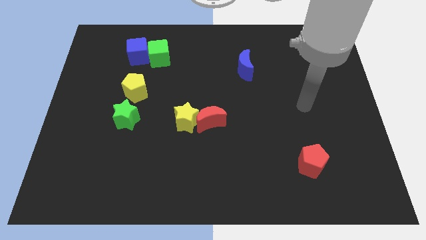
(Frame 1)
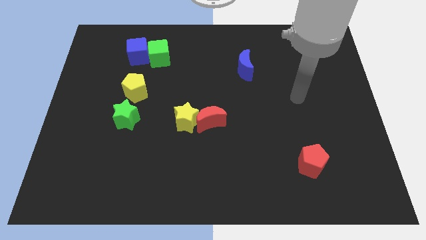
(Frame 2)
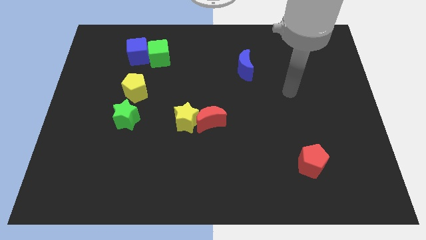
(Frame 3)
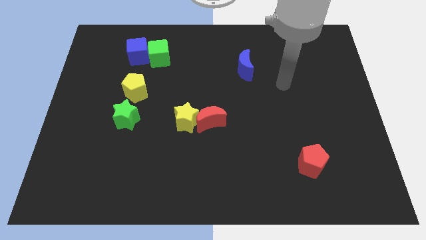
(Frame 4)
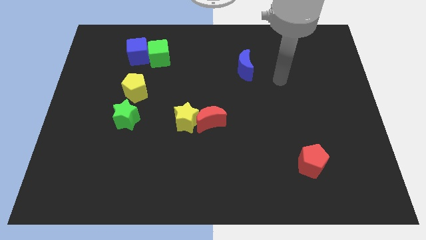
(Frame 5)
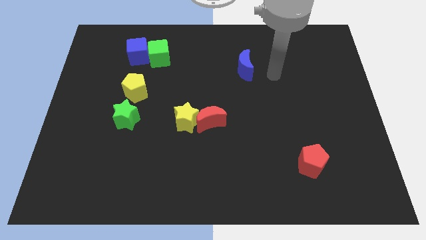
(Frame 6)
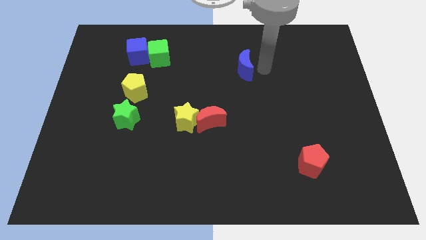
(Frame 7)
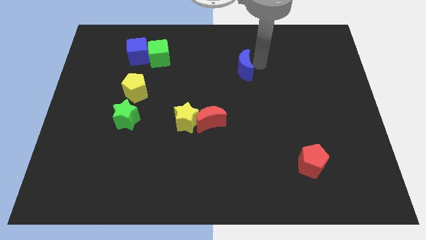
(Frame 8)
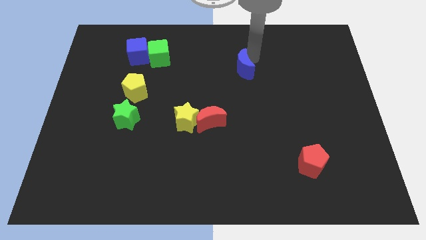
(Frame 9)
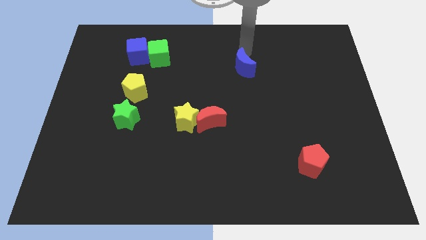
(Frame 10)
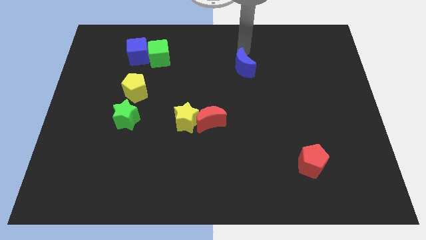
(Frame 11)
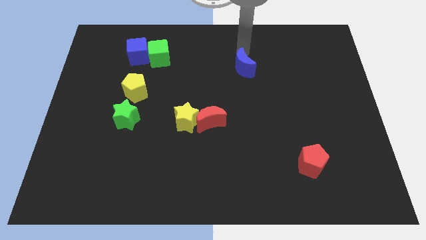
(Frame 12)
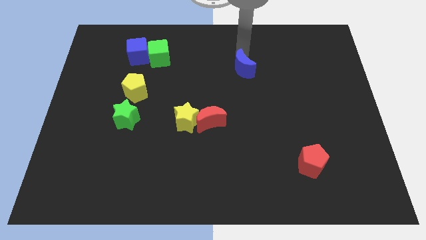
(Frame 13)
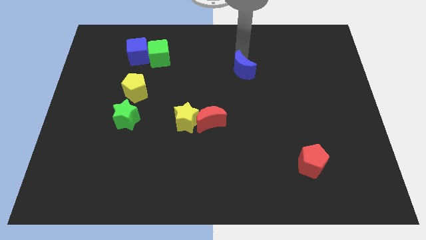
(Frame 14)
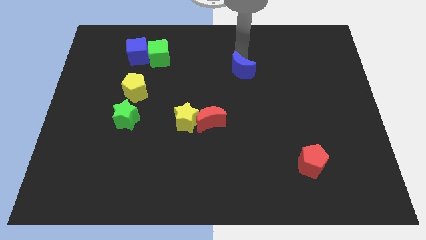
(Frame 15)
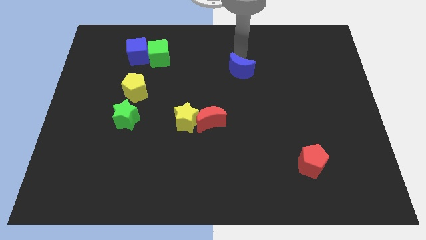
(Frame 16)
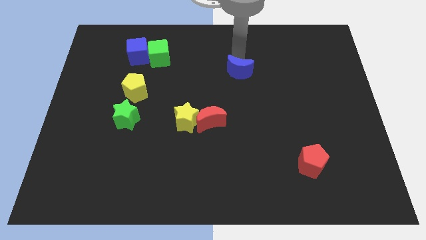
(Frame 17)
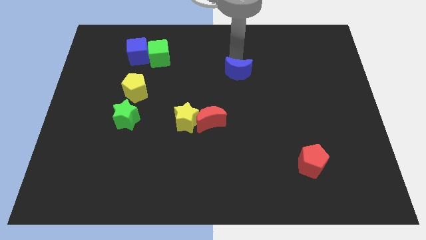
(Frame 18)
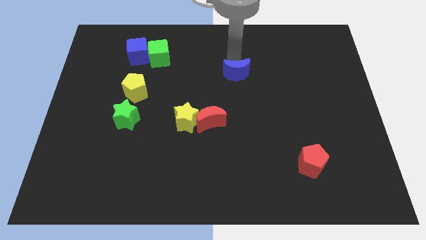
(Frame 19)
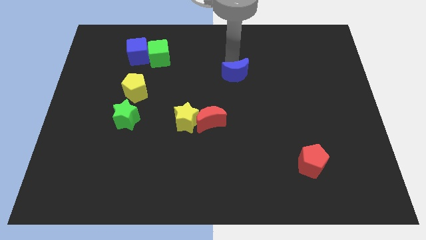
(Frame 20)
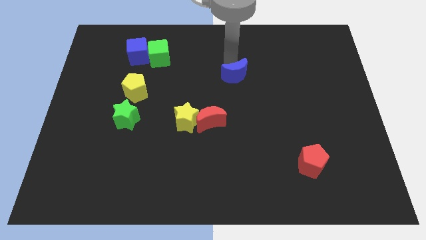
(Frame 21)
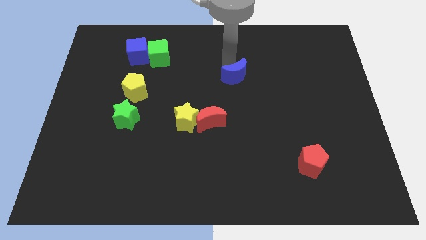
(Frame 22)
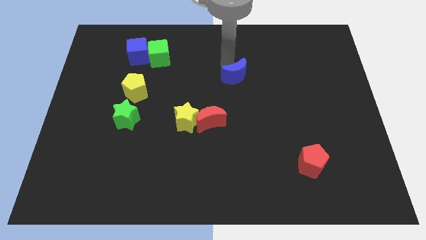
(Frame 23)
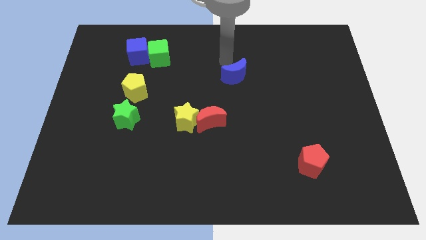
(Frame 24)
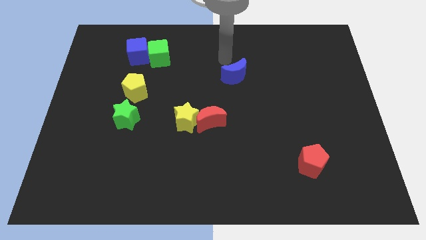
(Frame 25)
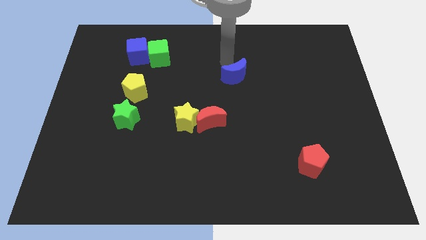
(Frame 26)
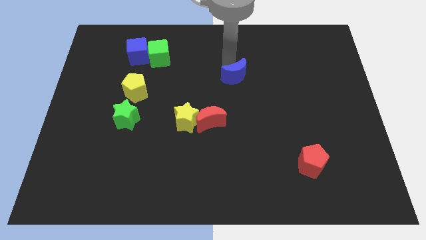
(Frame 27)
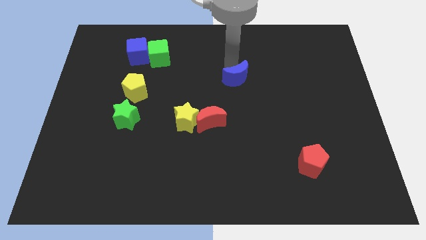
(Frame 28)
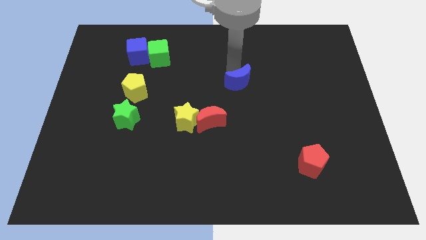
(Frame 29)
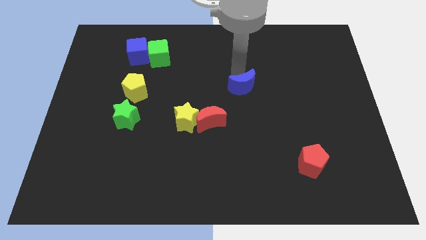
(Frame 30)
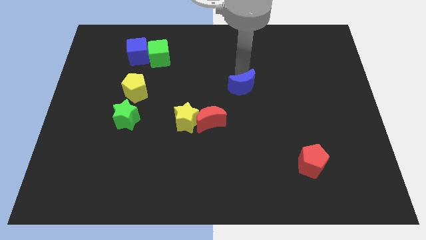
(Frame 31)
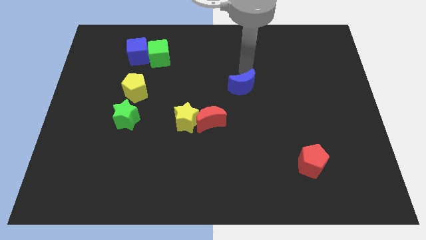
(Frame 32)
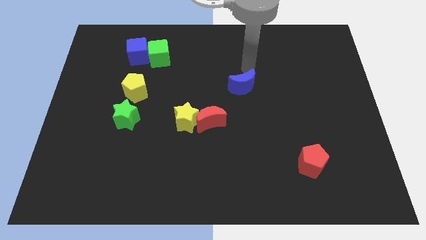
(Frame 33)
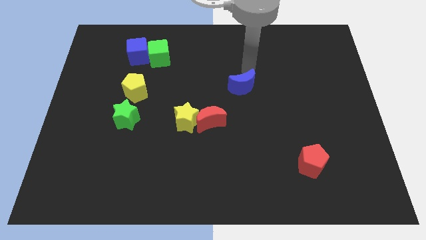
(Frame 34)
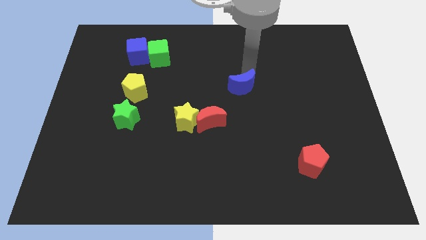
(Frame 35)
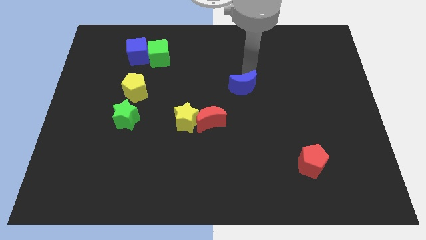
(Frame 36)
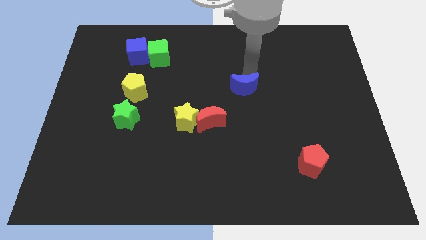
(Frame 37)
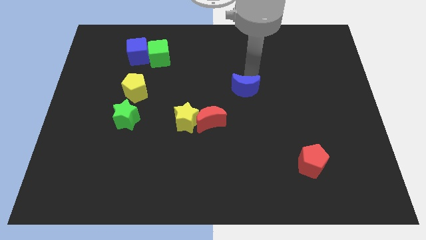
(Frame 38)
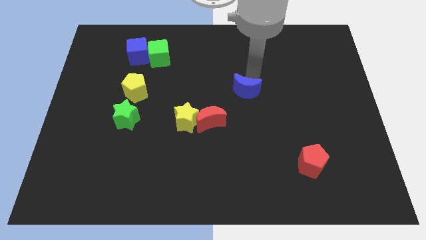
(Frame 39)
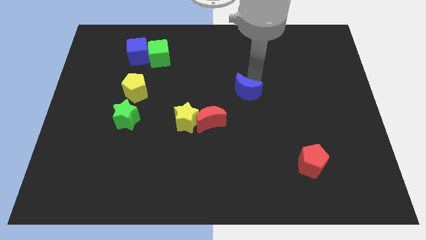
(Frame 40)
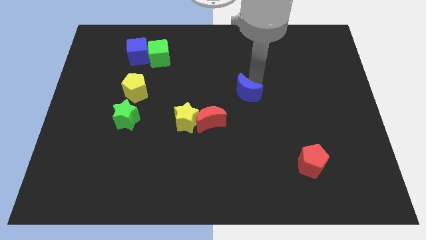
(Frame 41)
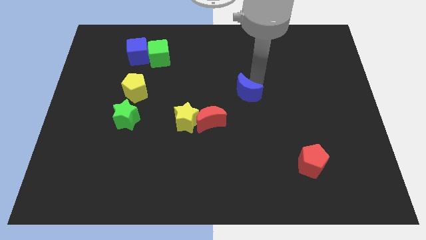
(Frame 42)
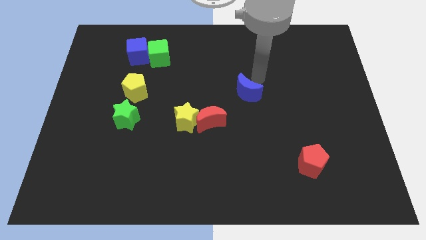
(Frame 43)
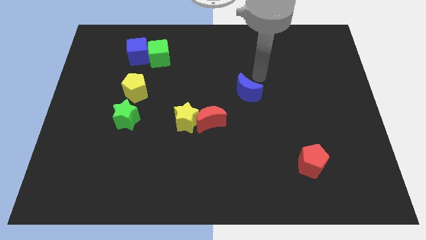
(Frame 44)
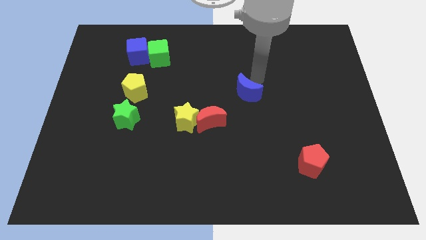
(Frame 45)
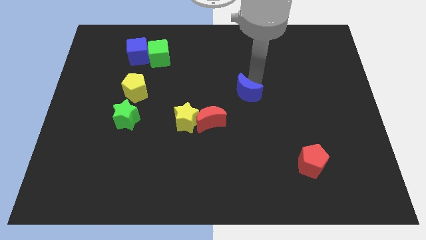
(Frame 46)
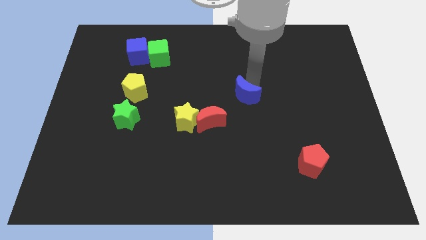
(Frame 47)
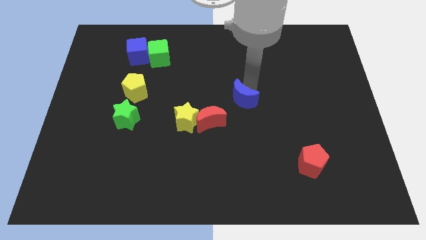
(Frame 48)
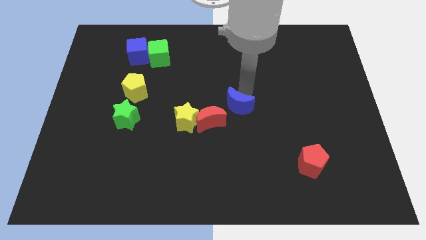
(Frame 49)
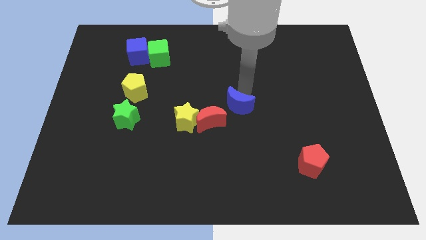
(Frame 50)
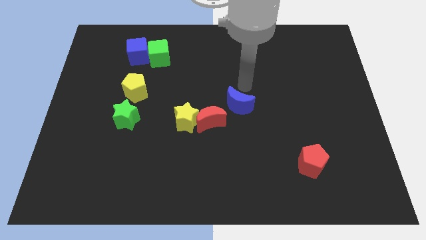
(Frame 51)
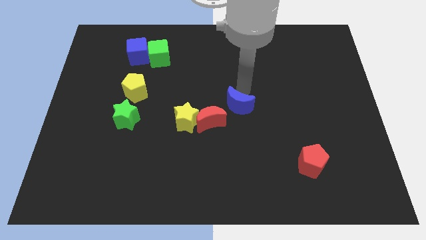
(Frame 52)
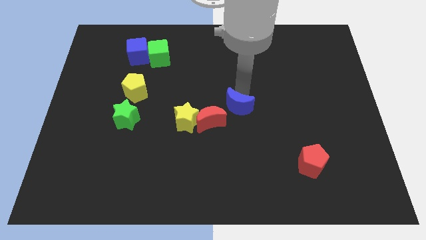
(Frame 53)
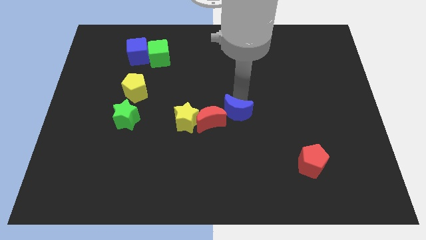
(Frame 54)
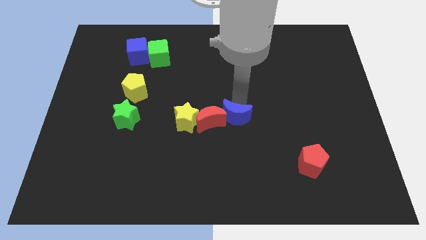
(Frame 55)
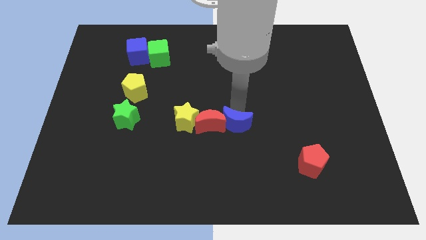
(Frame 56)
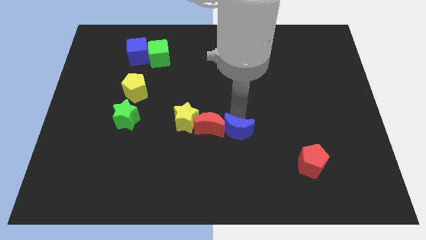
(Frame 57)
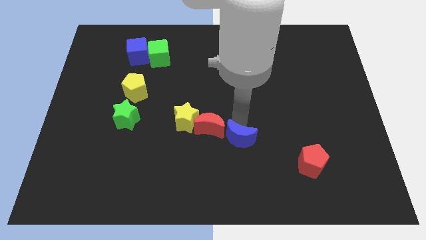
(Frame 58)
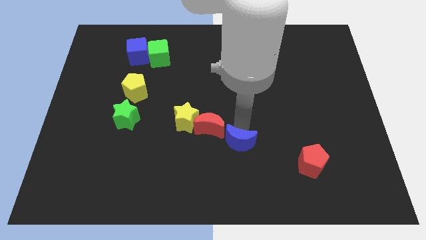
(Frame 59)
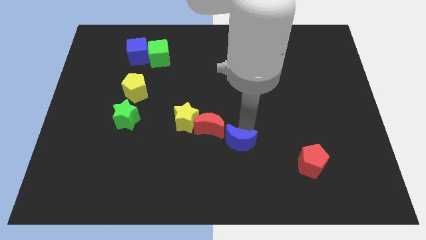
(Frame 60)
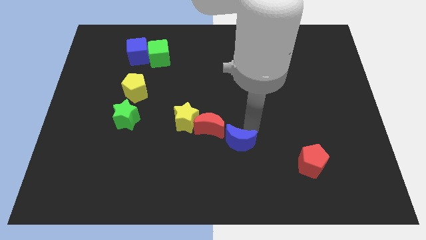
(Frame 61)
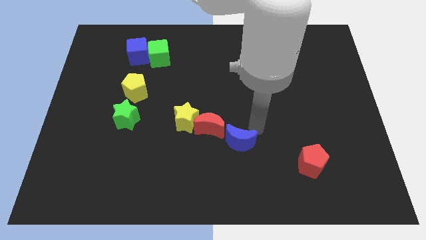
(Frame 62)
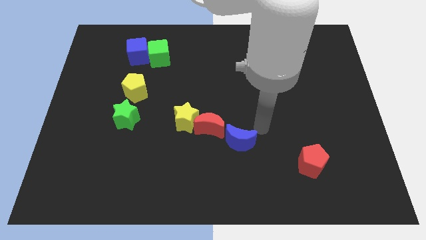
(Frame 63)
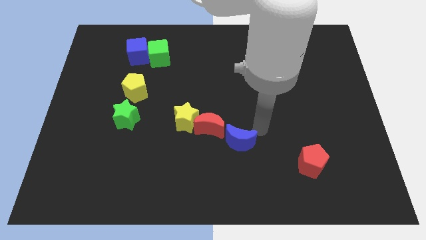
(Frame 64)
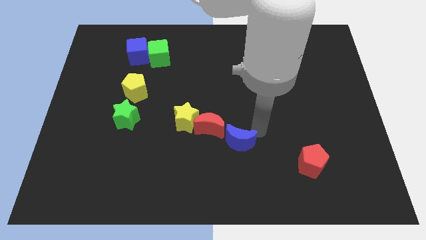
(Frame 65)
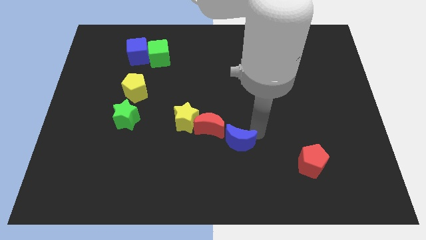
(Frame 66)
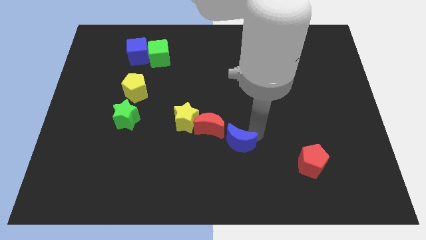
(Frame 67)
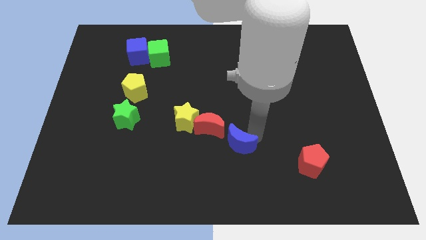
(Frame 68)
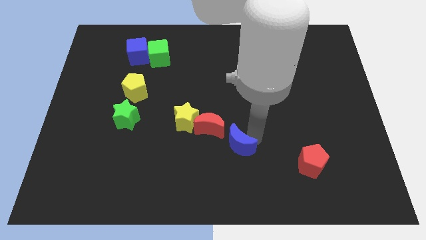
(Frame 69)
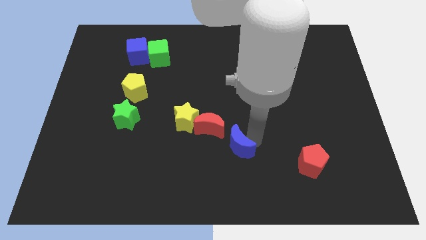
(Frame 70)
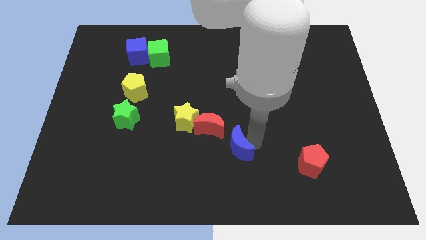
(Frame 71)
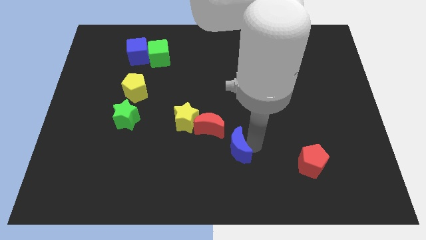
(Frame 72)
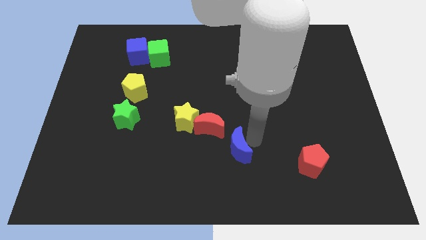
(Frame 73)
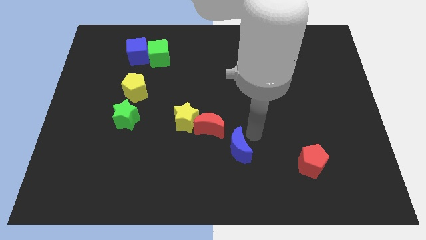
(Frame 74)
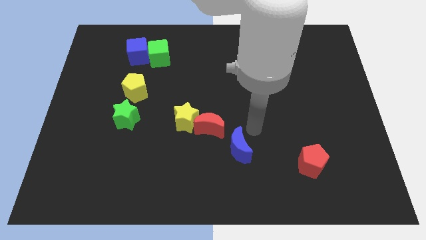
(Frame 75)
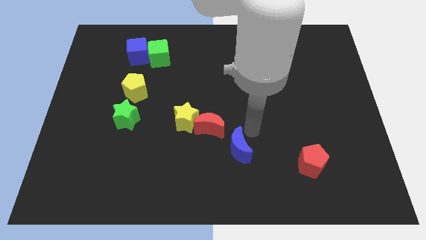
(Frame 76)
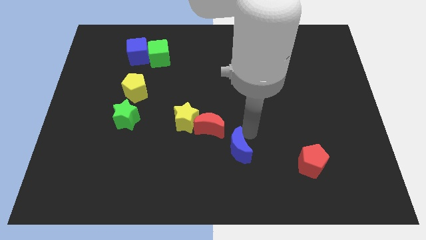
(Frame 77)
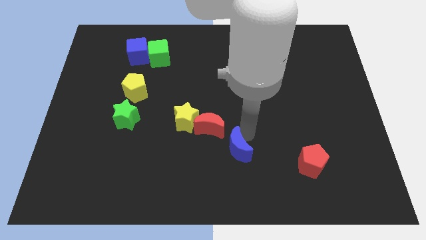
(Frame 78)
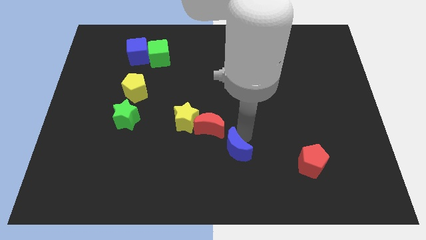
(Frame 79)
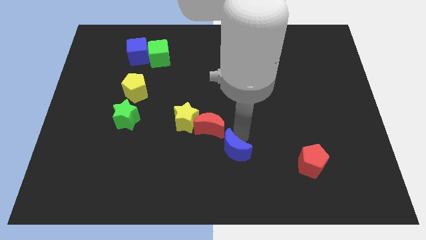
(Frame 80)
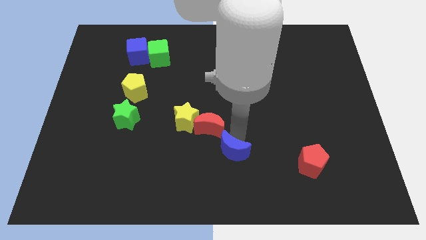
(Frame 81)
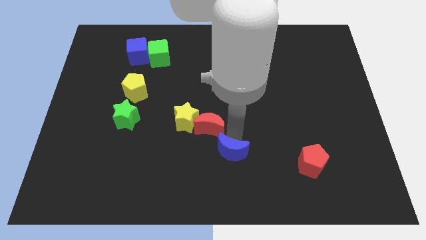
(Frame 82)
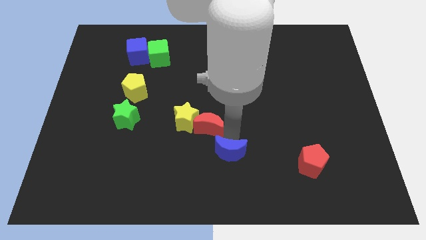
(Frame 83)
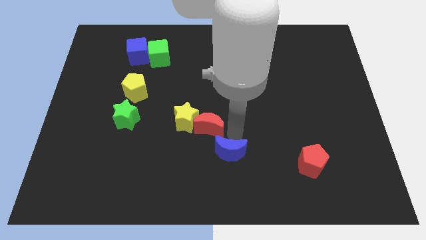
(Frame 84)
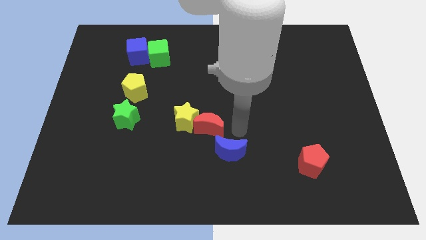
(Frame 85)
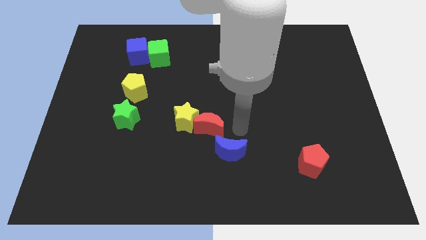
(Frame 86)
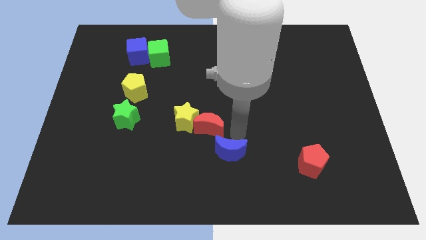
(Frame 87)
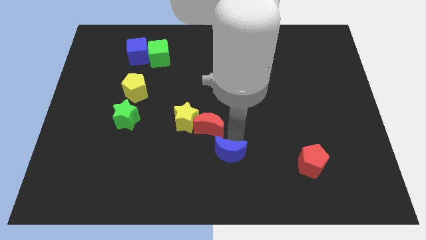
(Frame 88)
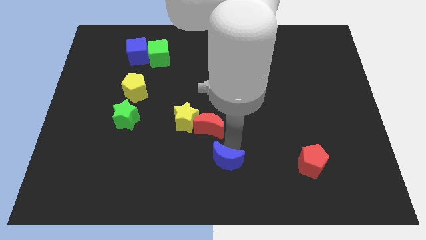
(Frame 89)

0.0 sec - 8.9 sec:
put the blue moon to the bottom side
